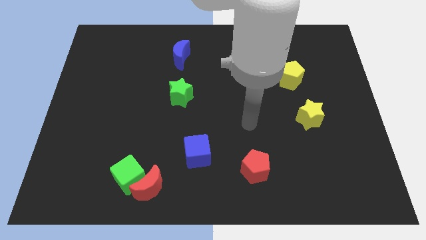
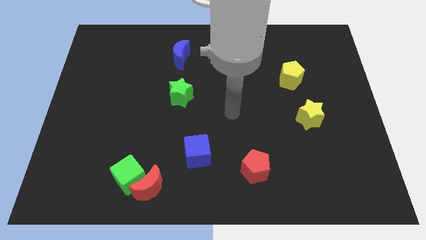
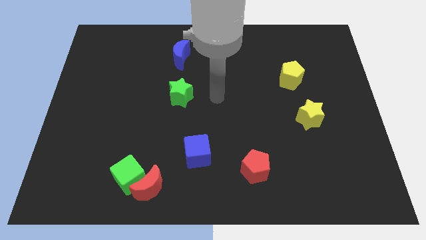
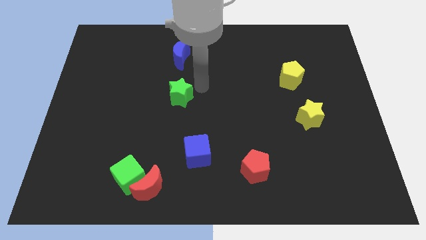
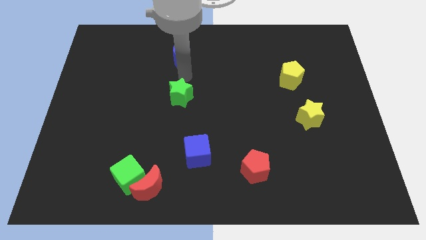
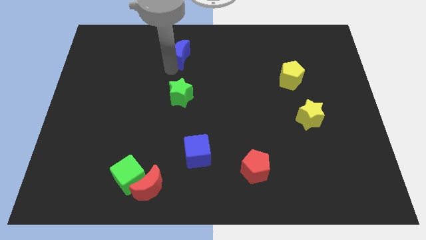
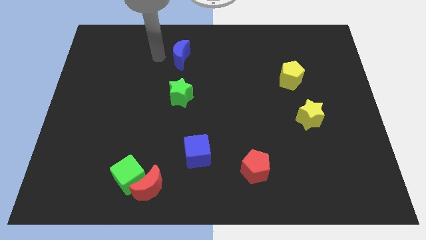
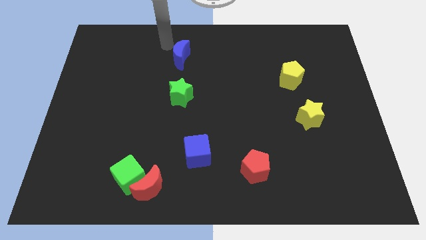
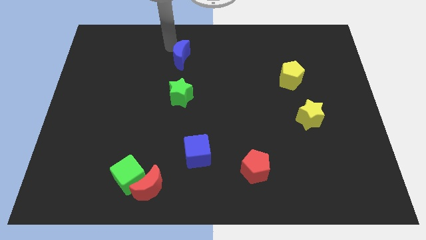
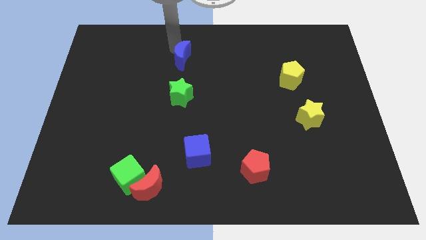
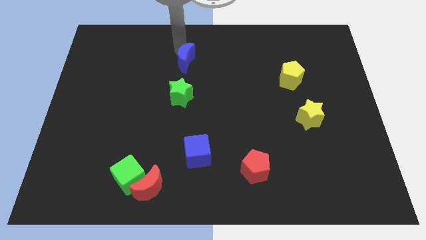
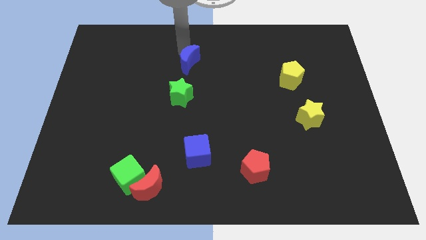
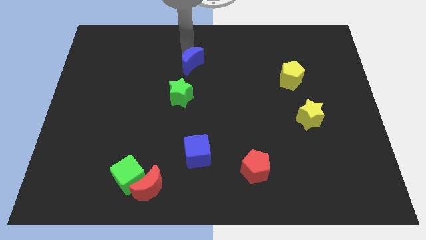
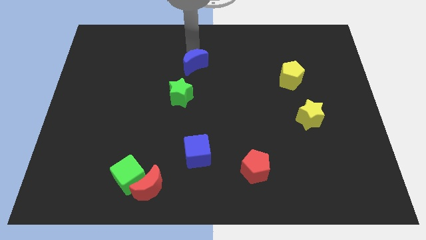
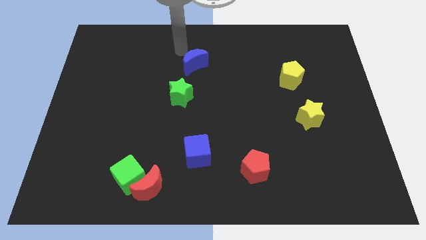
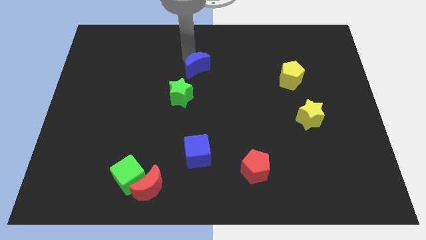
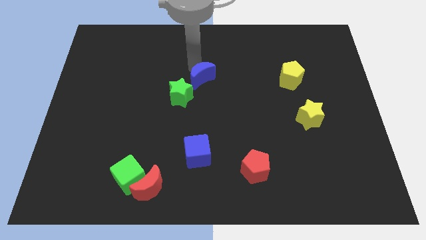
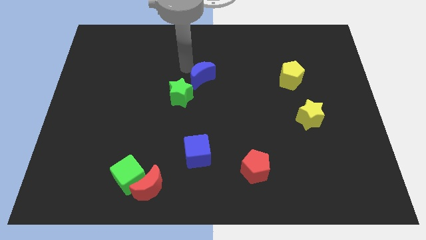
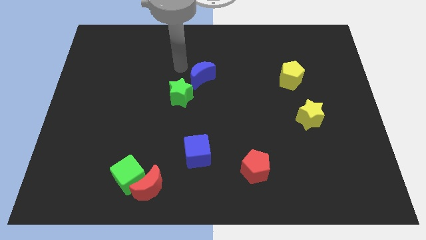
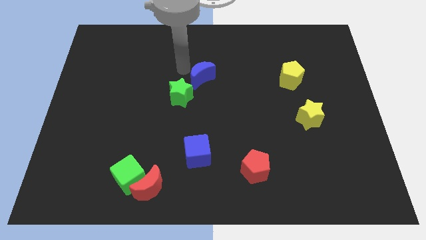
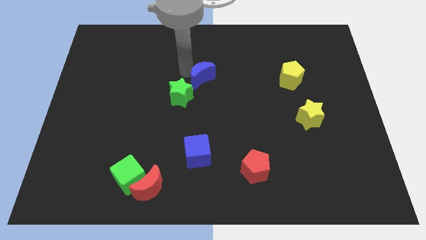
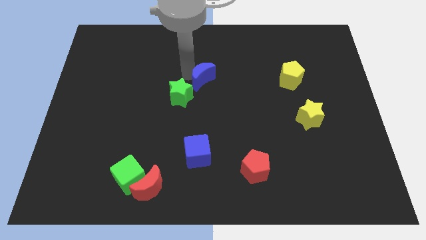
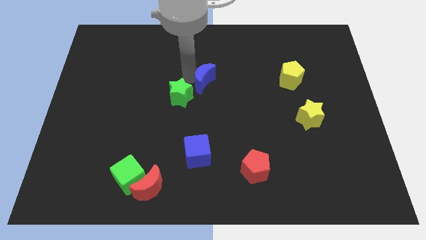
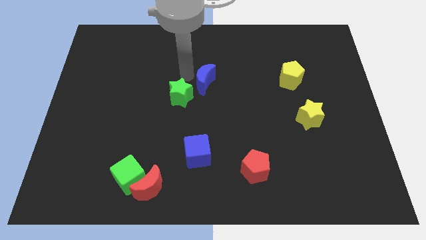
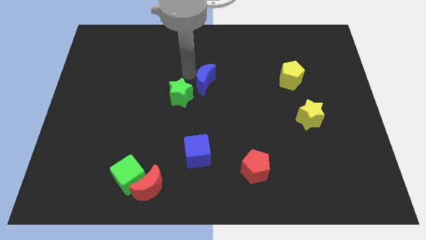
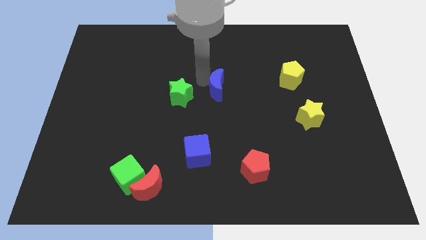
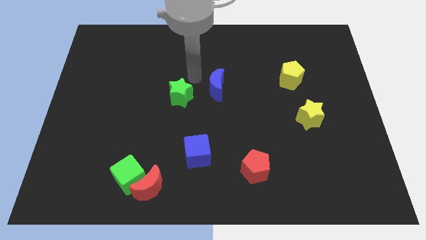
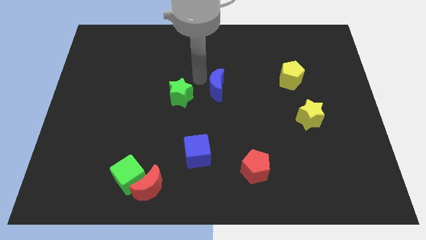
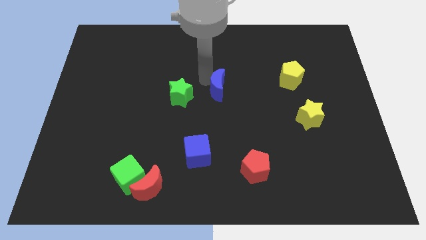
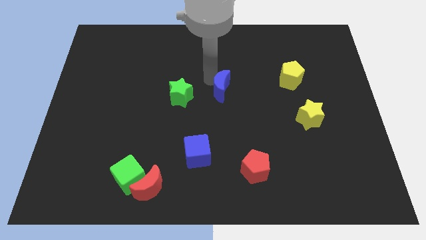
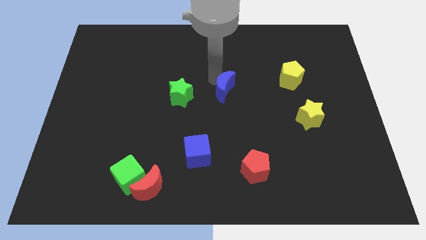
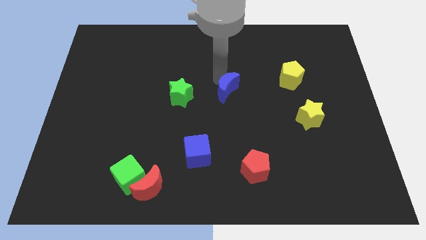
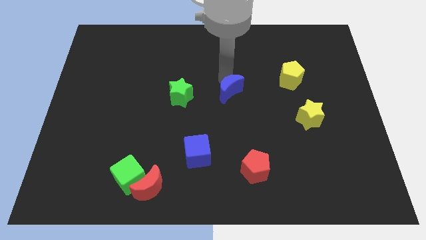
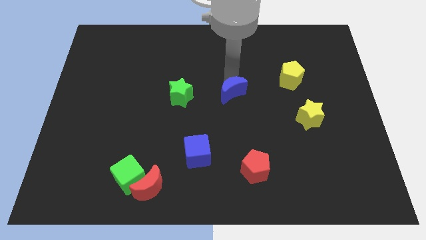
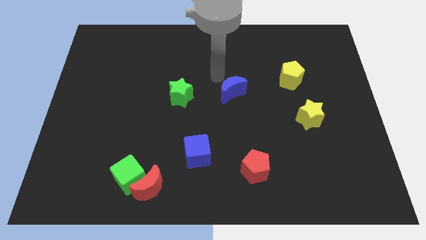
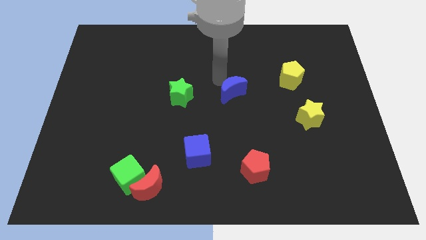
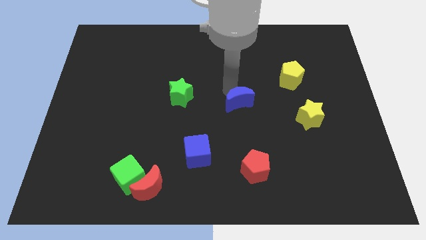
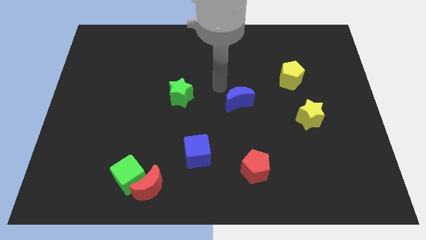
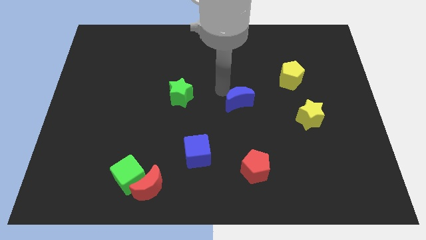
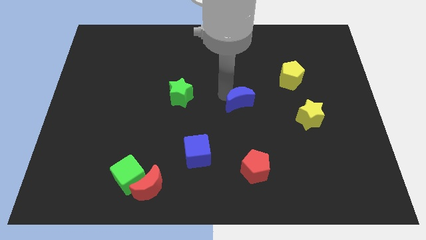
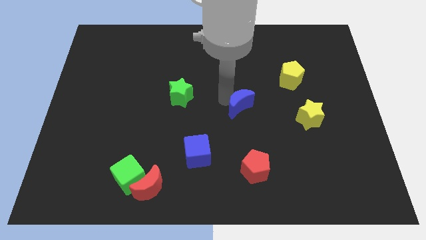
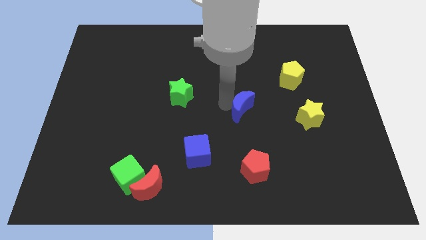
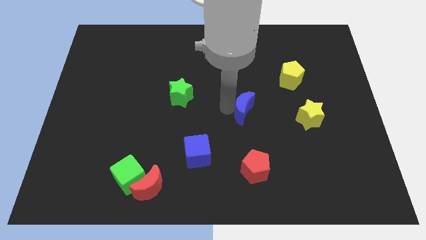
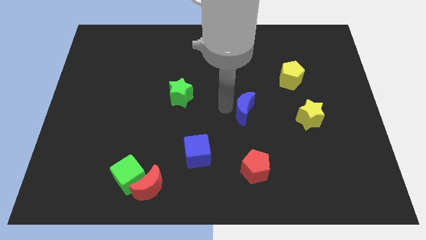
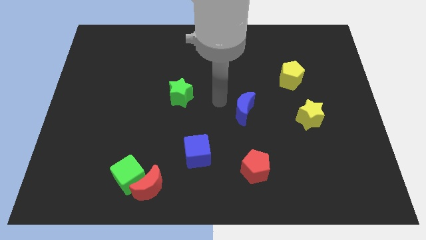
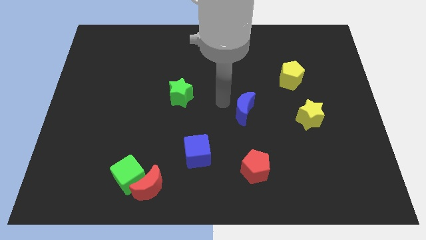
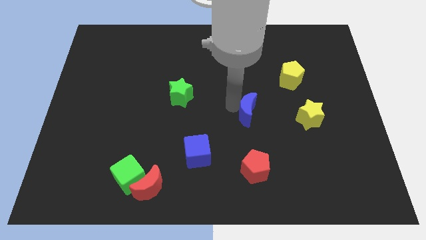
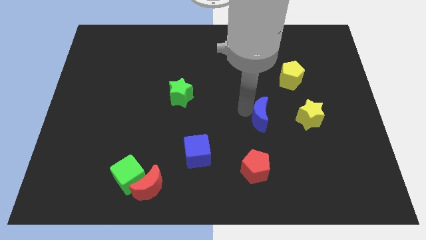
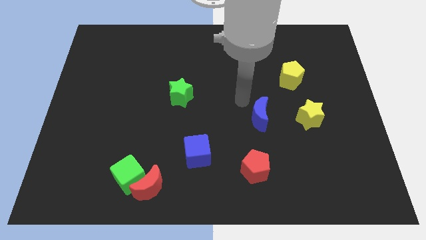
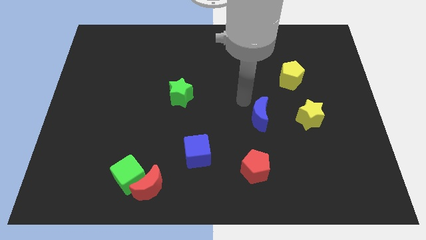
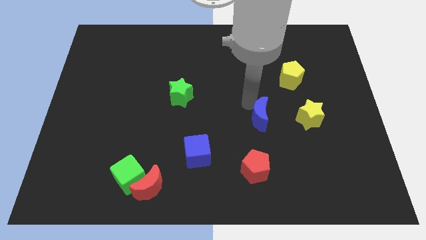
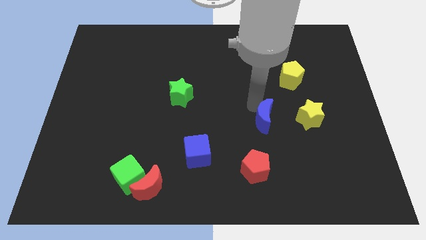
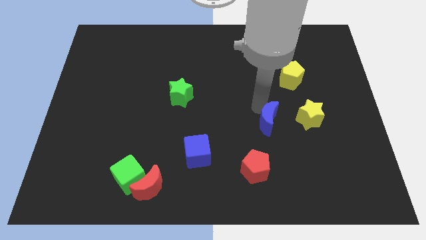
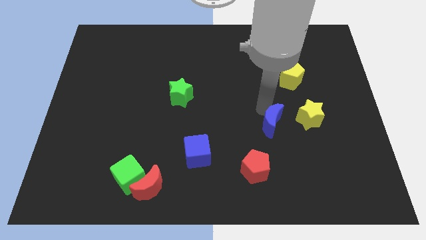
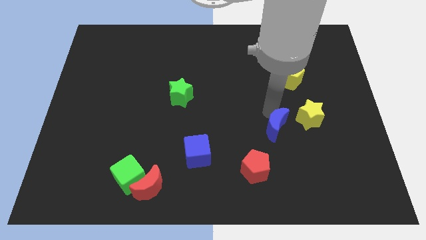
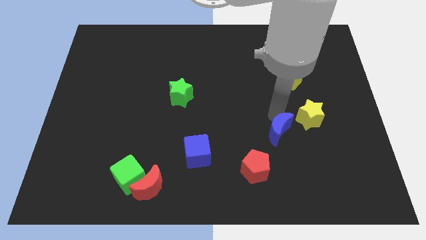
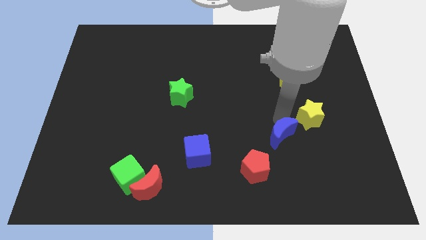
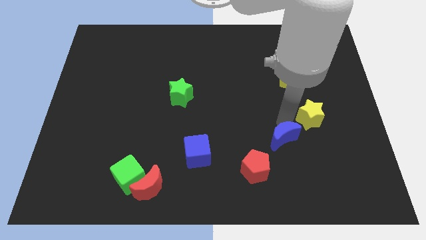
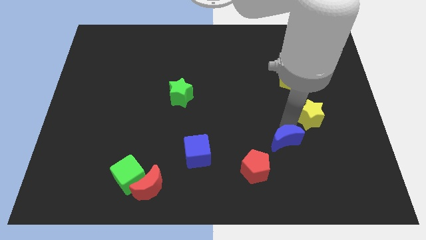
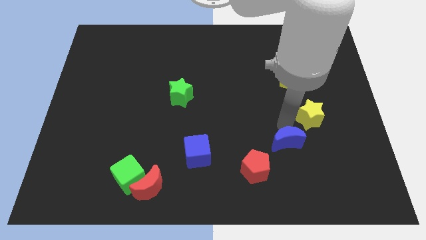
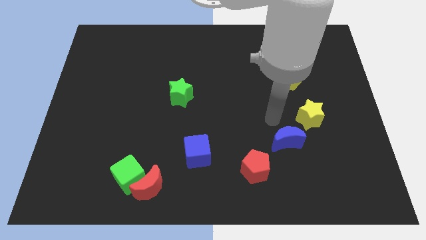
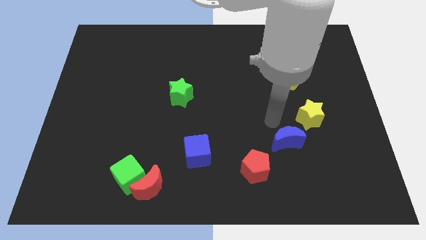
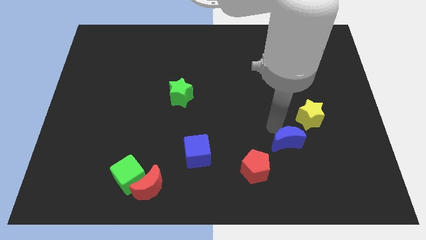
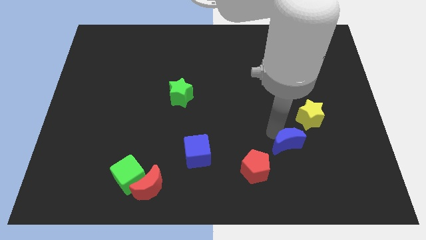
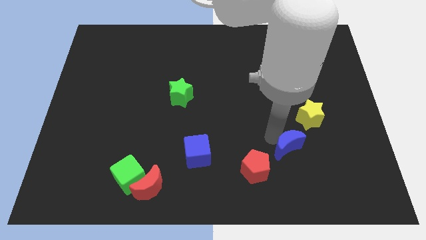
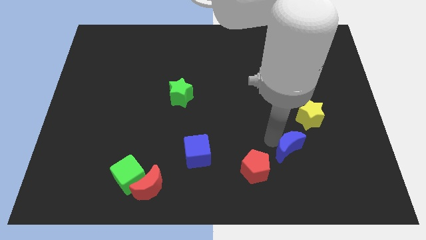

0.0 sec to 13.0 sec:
push the blue moon right of the red pentagon

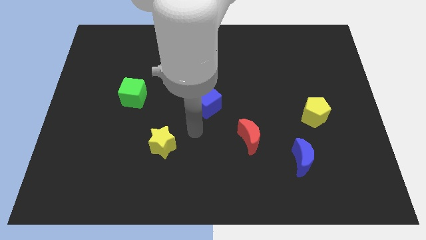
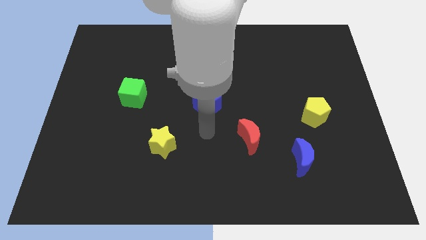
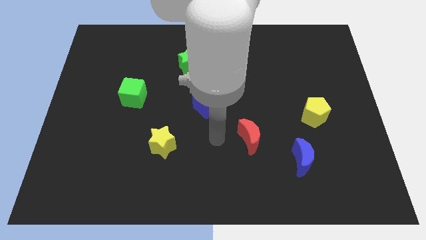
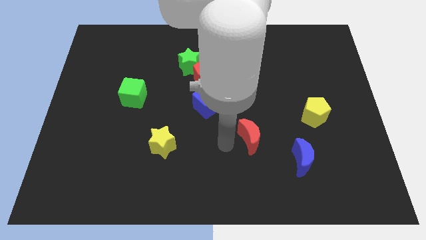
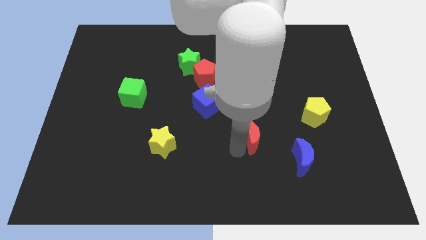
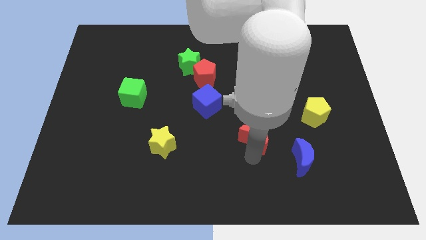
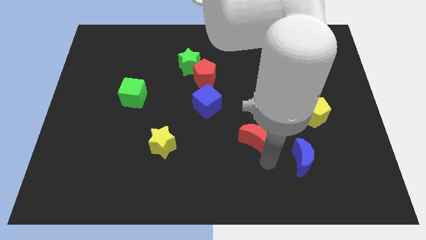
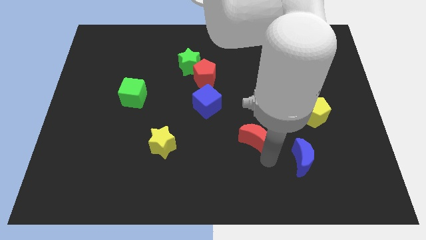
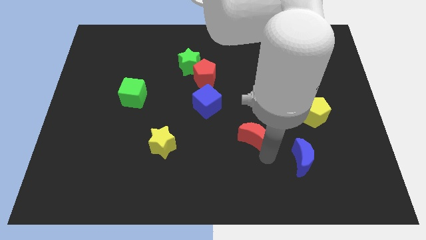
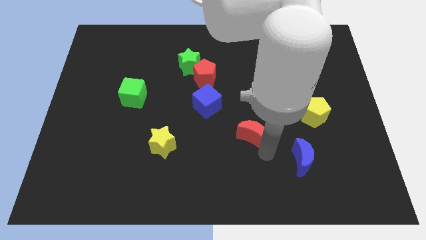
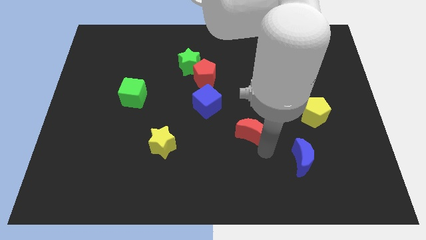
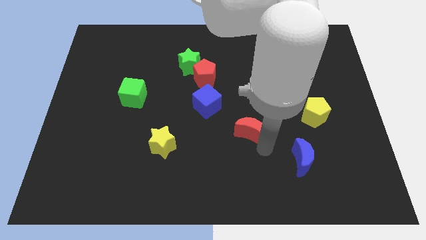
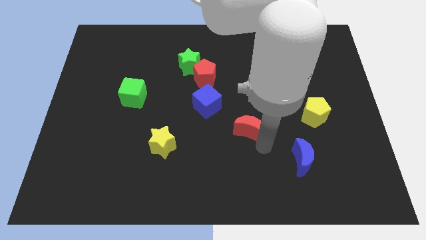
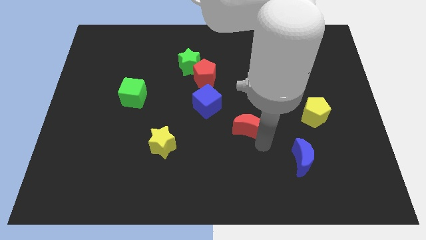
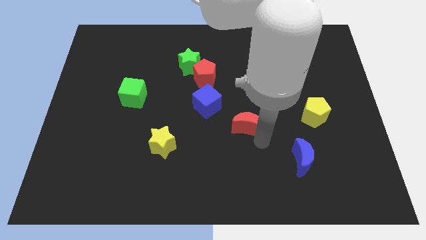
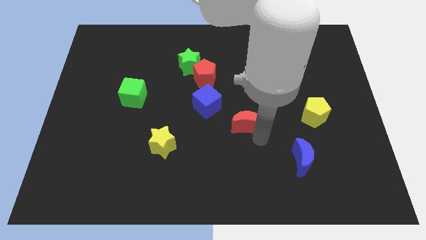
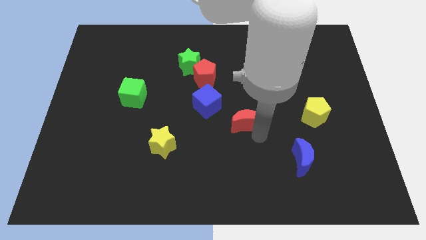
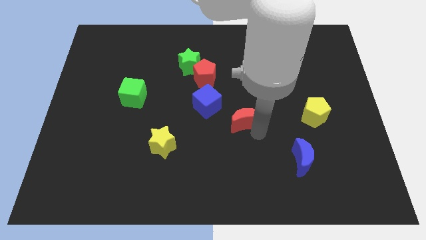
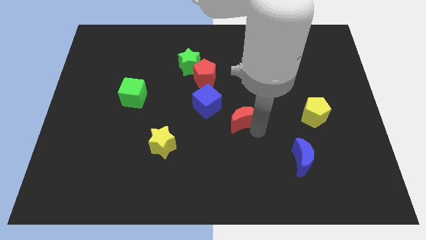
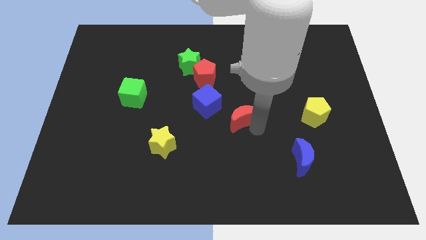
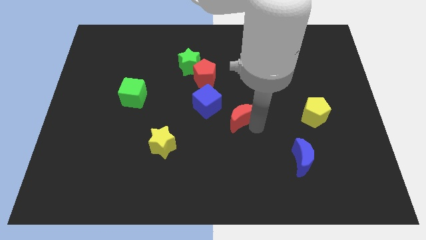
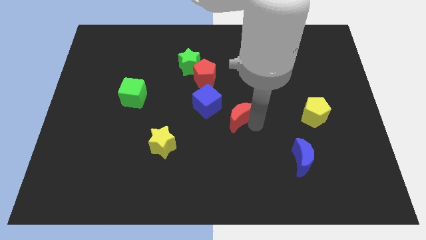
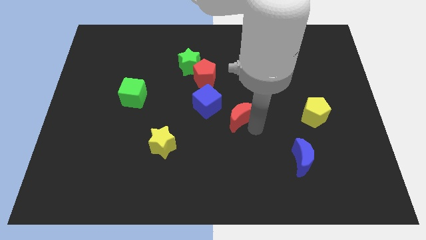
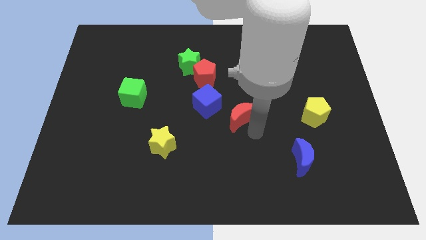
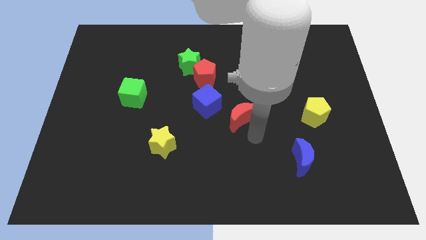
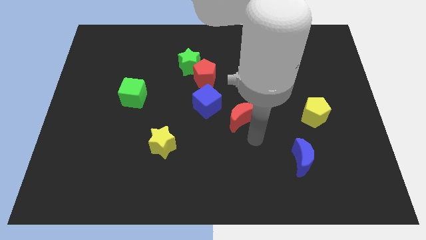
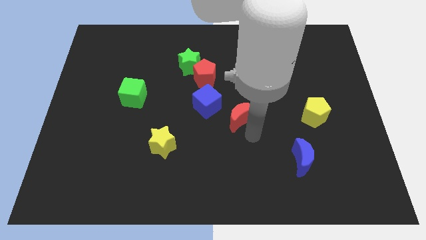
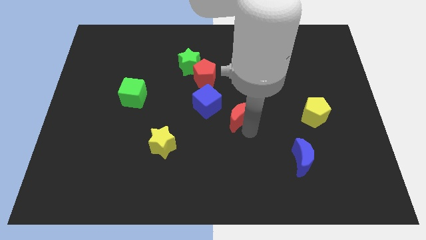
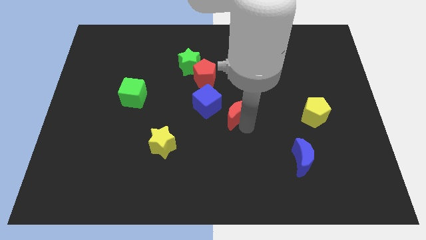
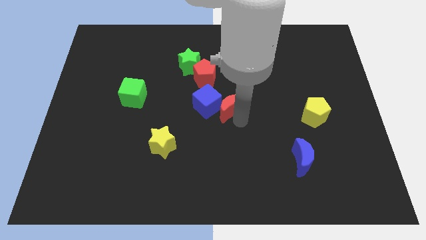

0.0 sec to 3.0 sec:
put the red moon diagonally up and to the right of the blue cube
